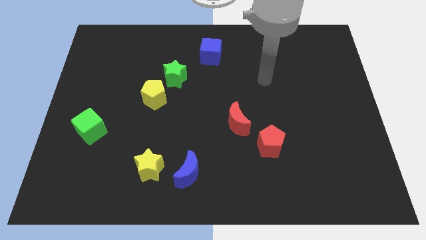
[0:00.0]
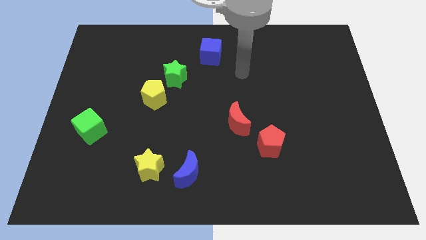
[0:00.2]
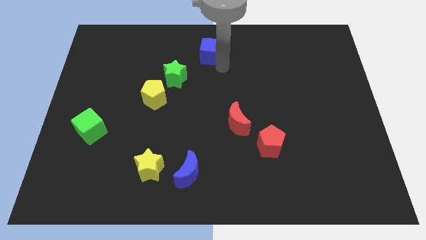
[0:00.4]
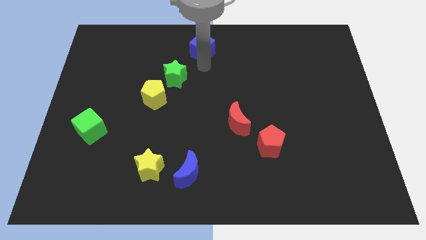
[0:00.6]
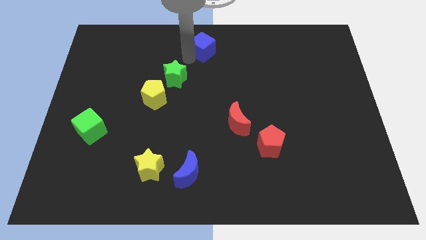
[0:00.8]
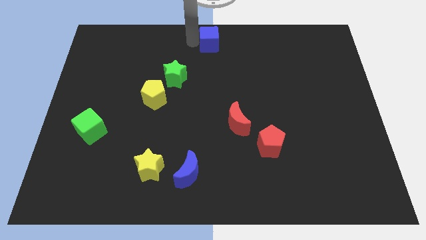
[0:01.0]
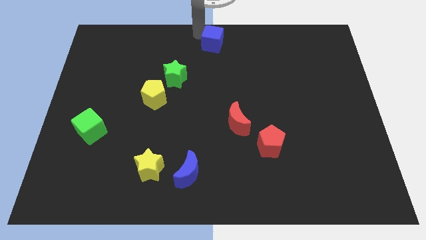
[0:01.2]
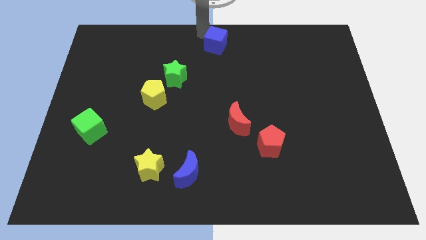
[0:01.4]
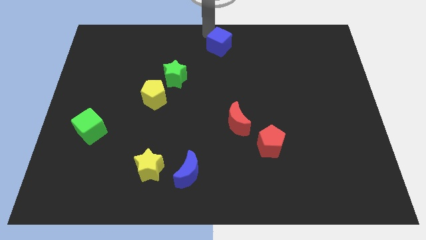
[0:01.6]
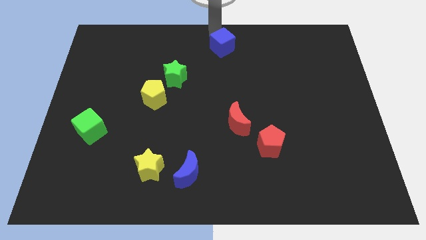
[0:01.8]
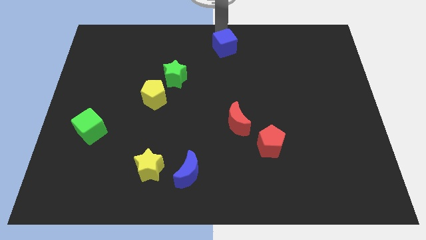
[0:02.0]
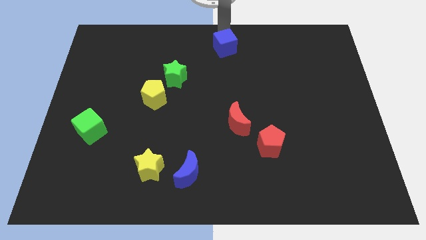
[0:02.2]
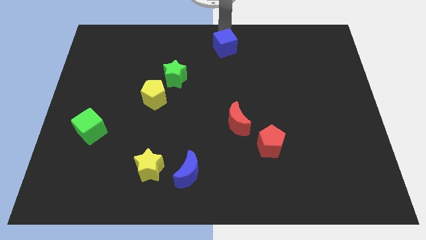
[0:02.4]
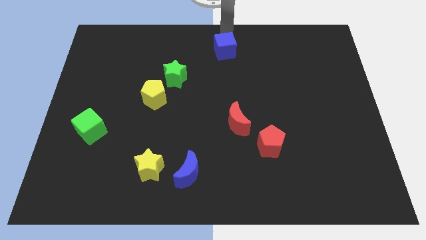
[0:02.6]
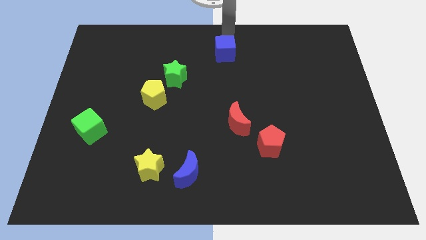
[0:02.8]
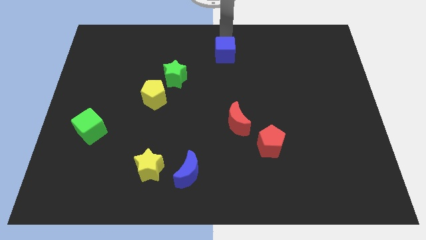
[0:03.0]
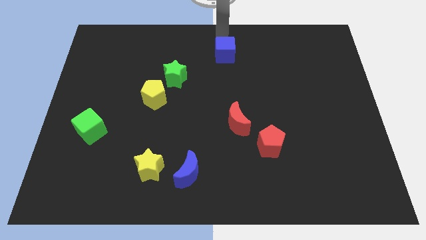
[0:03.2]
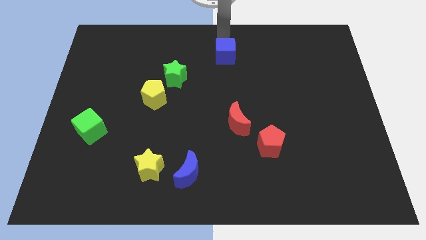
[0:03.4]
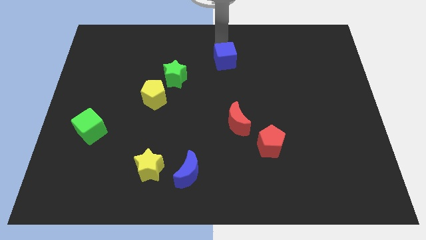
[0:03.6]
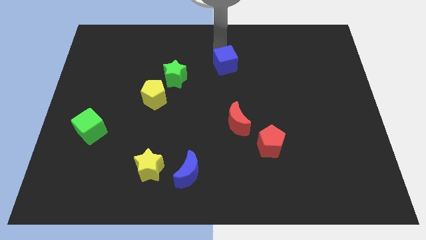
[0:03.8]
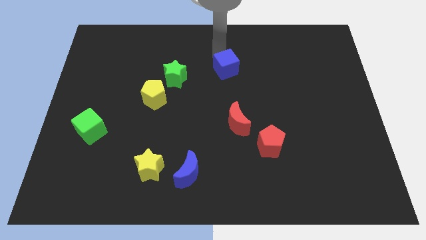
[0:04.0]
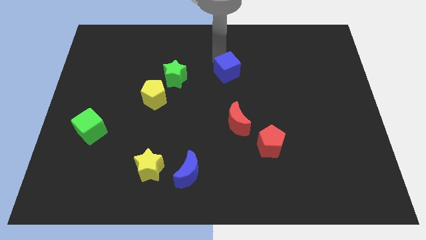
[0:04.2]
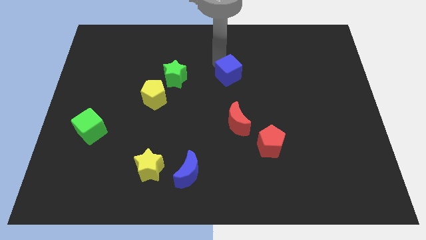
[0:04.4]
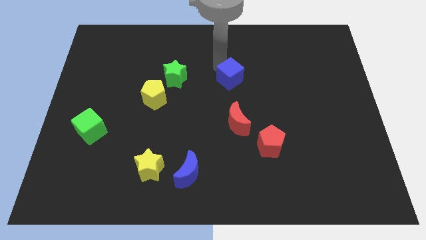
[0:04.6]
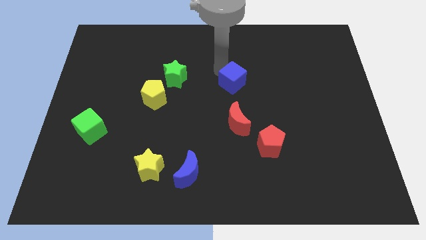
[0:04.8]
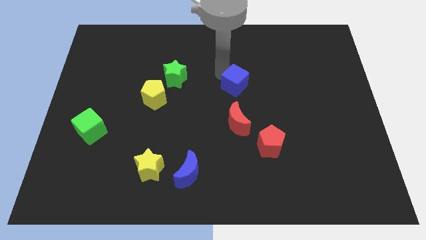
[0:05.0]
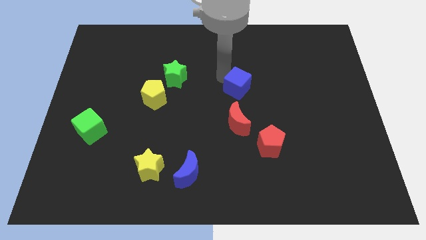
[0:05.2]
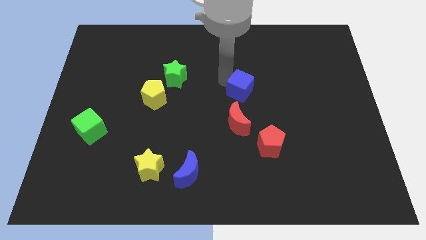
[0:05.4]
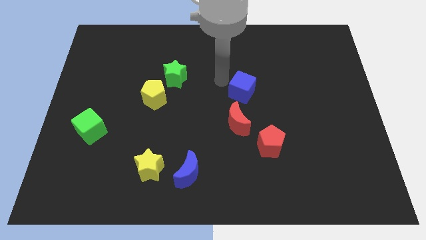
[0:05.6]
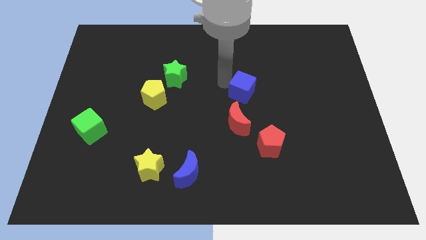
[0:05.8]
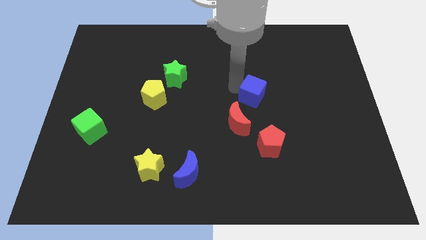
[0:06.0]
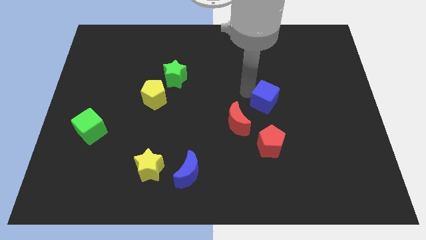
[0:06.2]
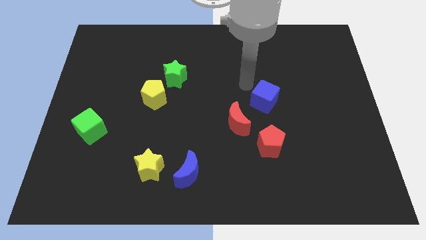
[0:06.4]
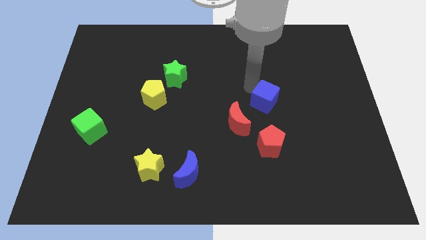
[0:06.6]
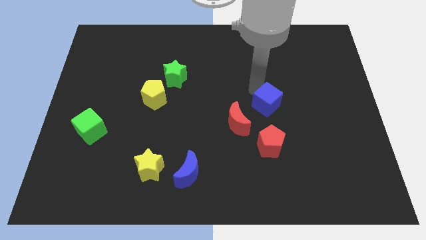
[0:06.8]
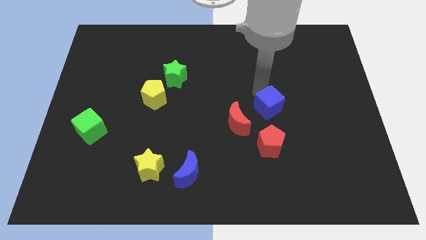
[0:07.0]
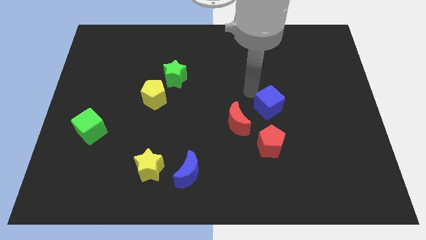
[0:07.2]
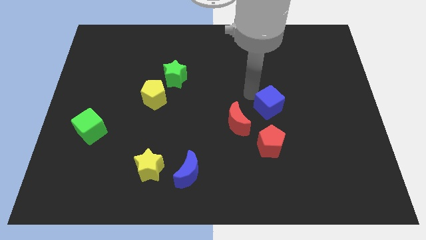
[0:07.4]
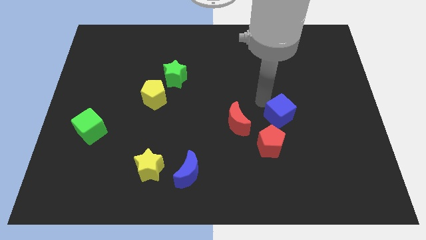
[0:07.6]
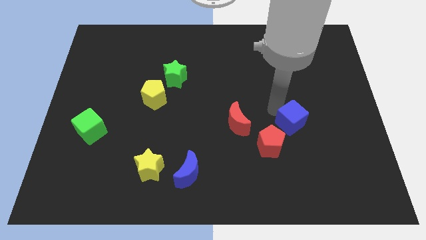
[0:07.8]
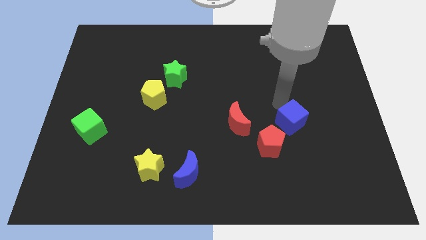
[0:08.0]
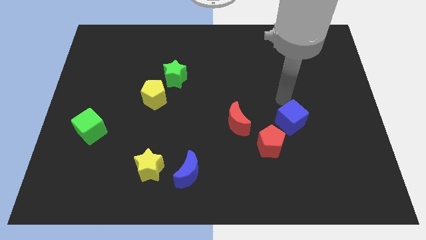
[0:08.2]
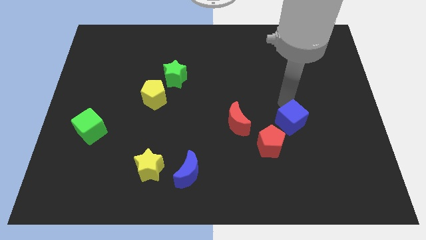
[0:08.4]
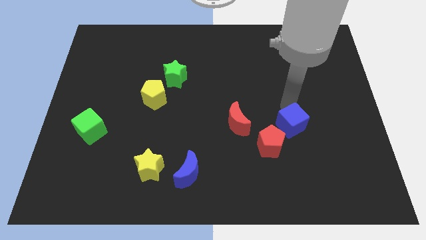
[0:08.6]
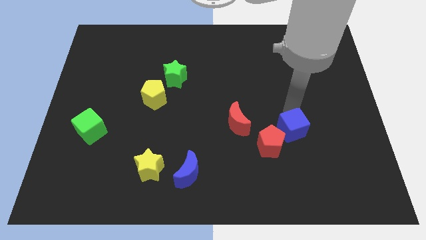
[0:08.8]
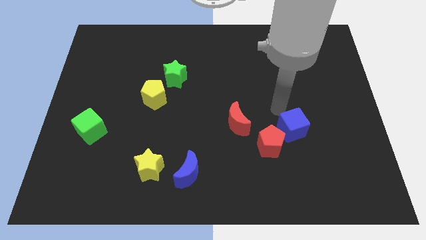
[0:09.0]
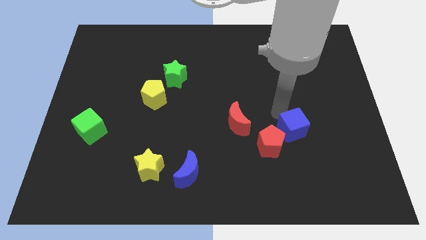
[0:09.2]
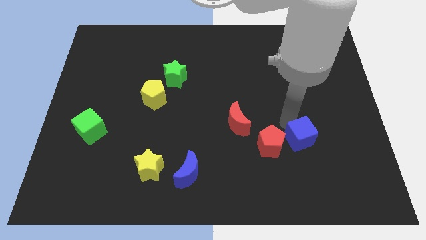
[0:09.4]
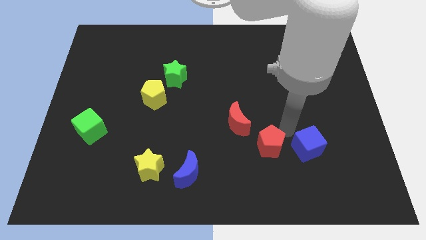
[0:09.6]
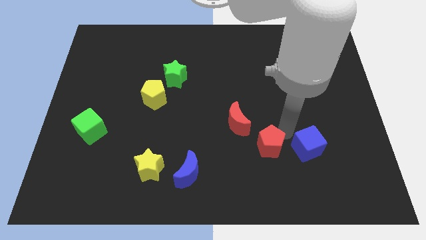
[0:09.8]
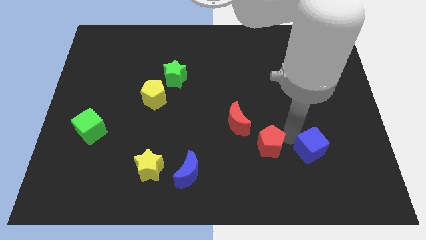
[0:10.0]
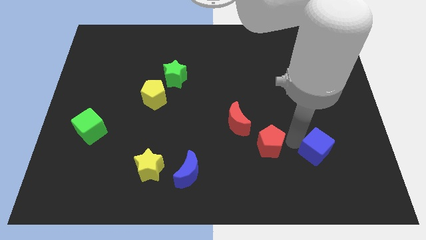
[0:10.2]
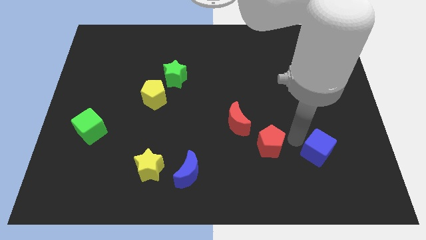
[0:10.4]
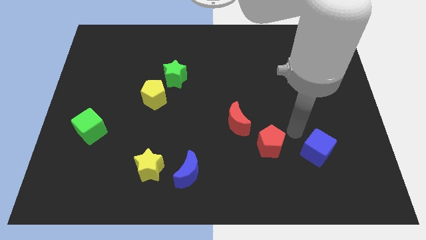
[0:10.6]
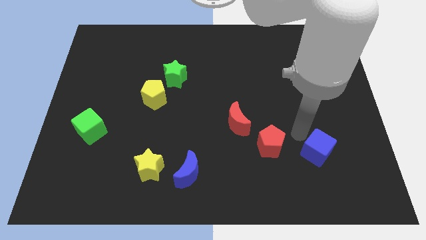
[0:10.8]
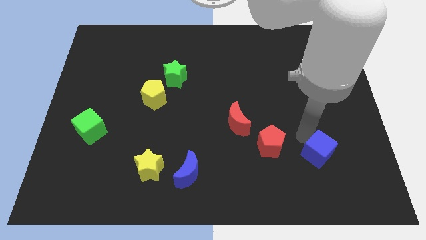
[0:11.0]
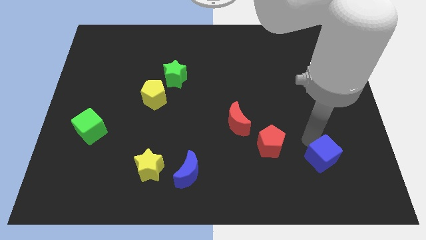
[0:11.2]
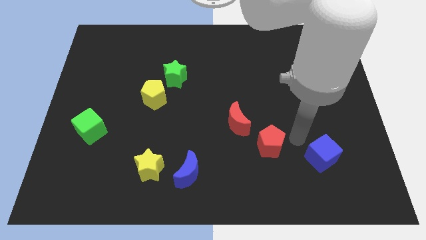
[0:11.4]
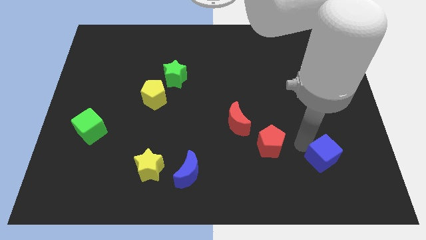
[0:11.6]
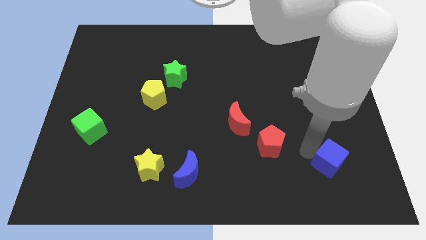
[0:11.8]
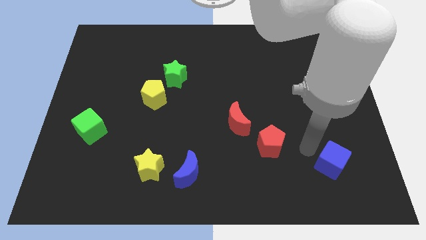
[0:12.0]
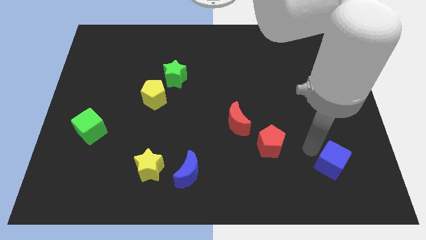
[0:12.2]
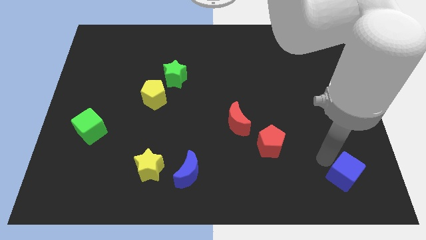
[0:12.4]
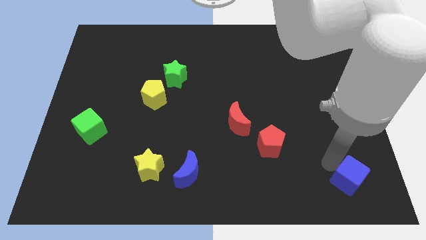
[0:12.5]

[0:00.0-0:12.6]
move the blue cube to the bottom right of the board
